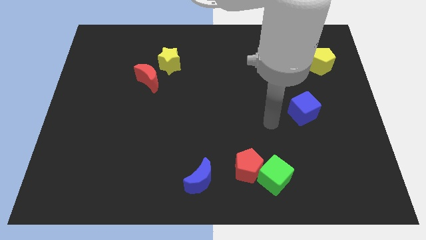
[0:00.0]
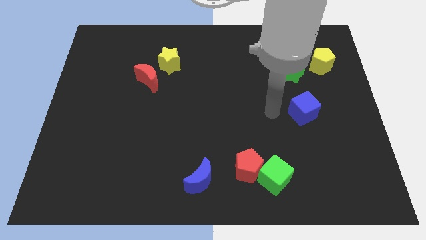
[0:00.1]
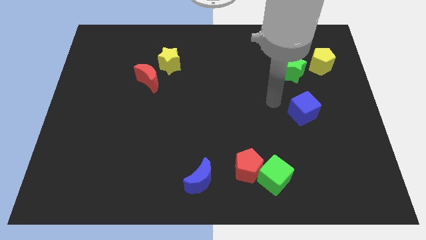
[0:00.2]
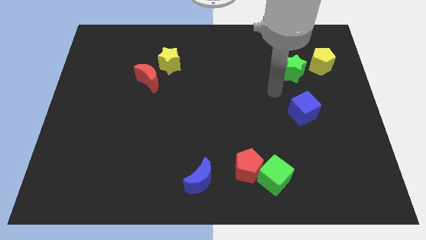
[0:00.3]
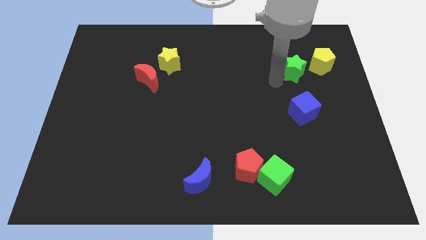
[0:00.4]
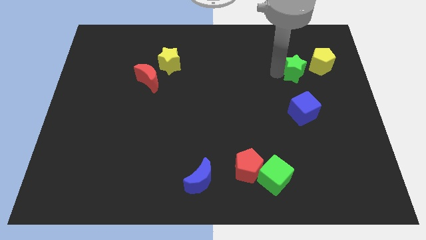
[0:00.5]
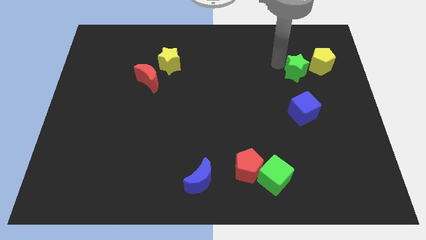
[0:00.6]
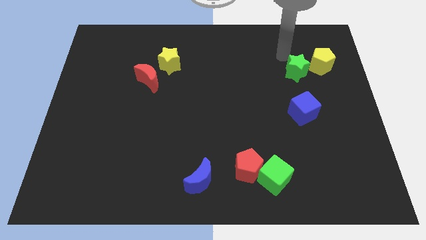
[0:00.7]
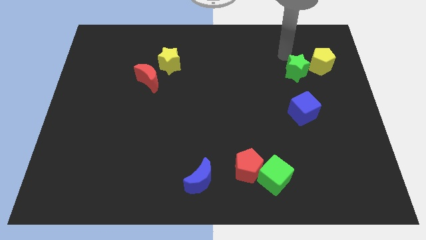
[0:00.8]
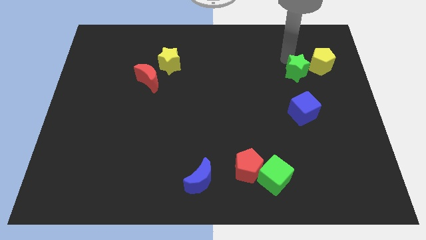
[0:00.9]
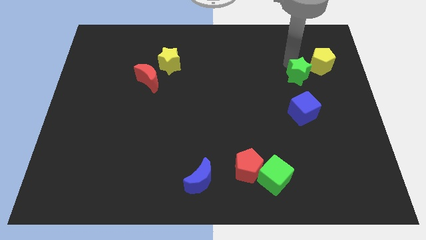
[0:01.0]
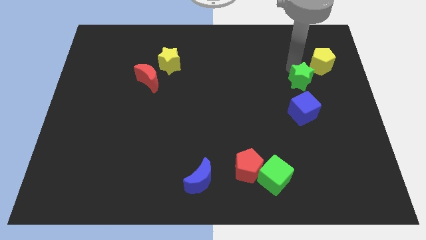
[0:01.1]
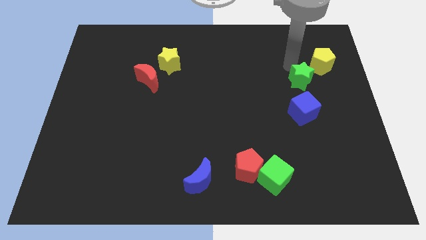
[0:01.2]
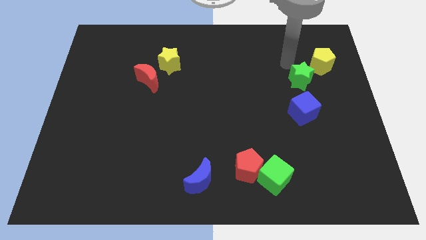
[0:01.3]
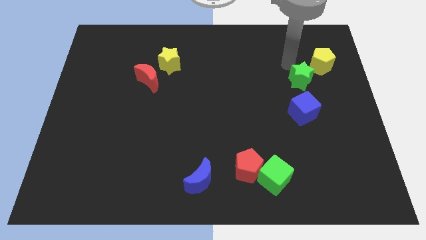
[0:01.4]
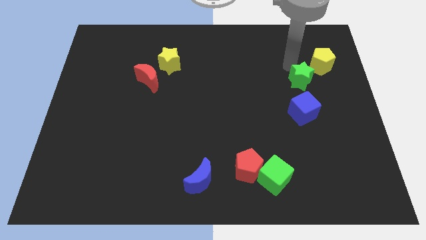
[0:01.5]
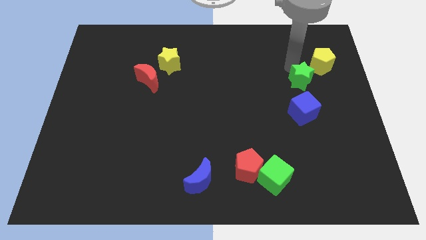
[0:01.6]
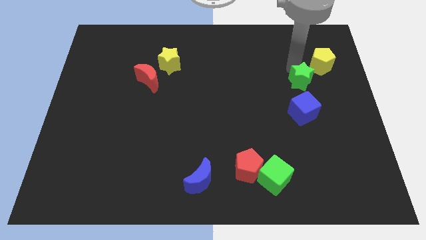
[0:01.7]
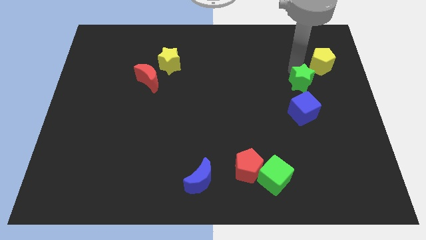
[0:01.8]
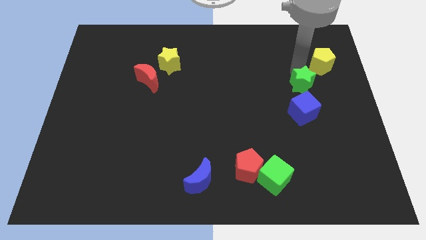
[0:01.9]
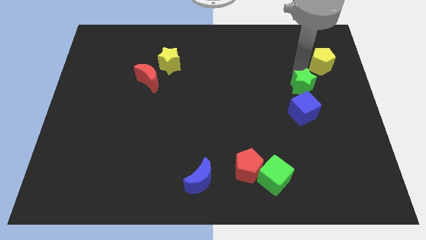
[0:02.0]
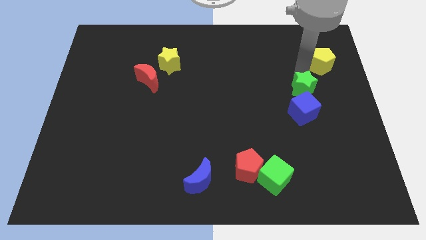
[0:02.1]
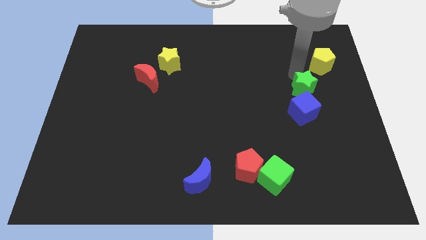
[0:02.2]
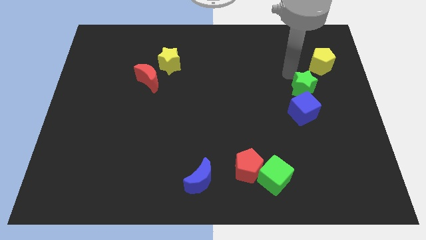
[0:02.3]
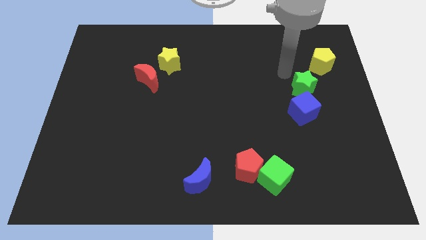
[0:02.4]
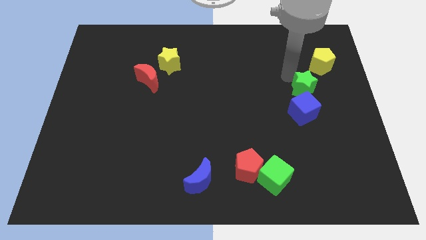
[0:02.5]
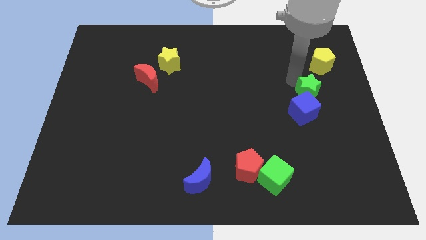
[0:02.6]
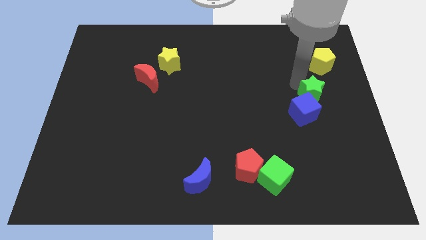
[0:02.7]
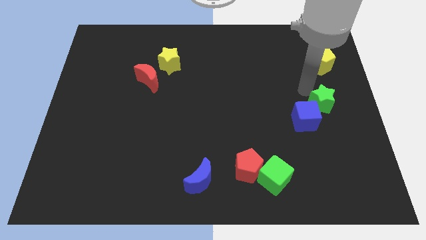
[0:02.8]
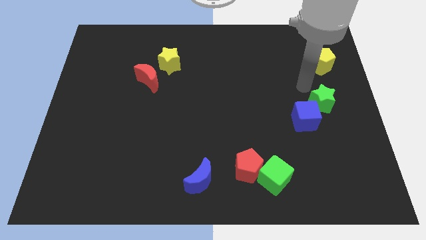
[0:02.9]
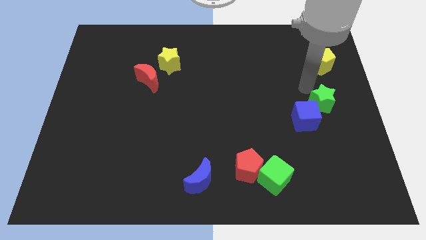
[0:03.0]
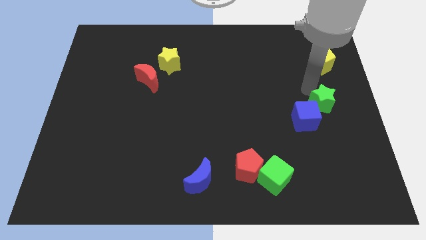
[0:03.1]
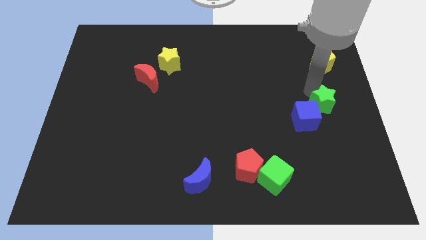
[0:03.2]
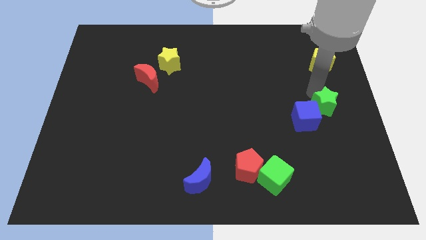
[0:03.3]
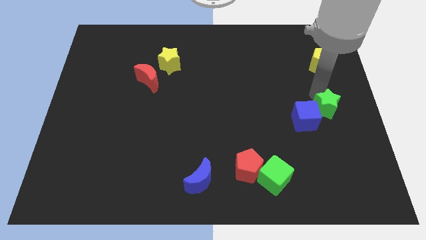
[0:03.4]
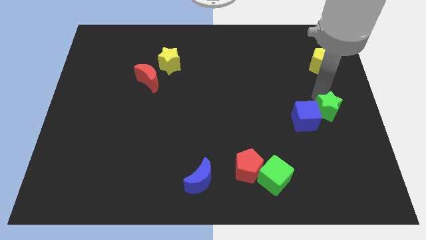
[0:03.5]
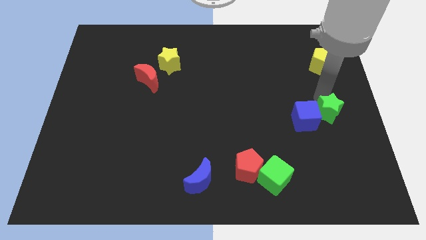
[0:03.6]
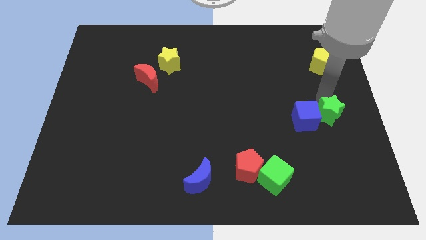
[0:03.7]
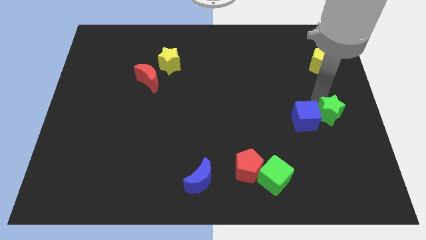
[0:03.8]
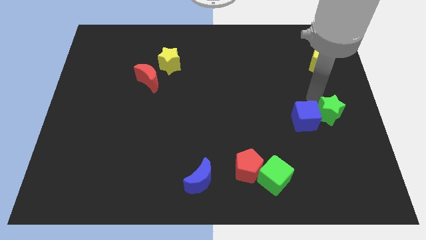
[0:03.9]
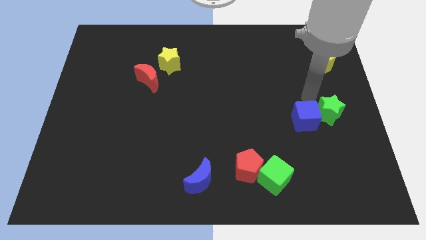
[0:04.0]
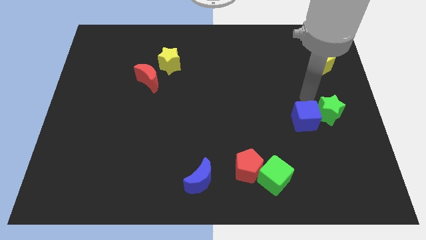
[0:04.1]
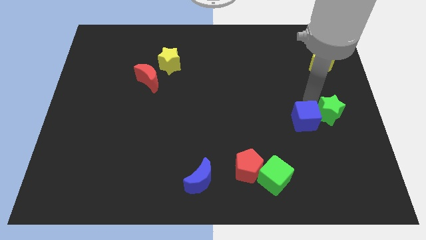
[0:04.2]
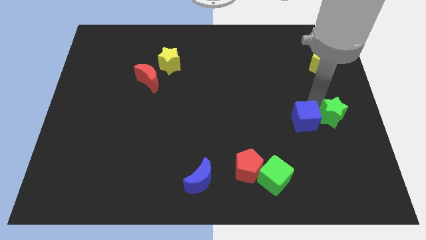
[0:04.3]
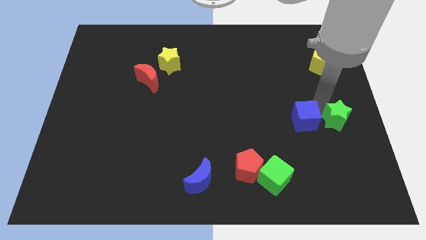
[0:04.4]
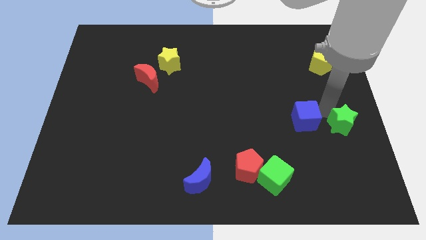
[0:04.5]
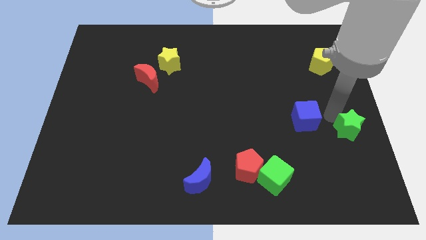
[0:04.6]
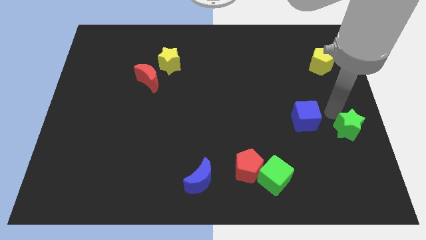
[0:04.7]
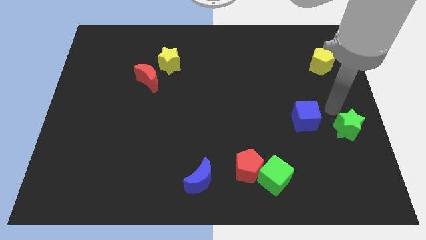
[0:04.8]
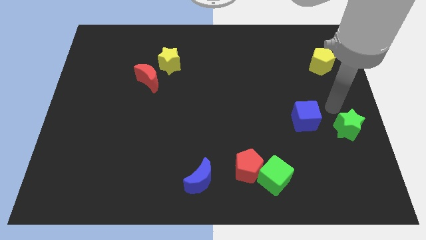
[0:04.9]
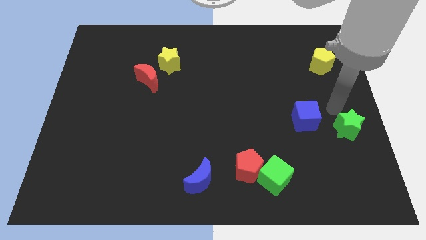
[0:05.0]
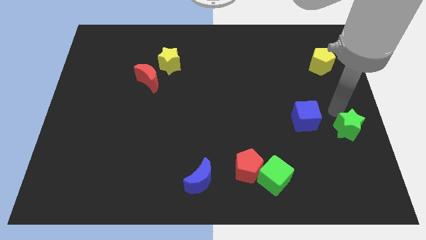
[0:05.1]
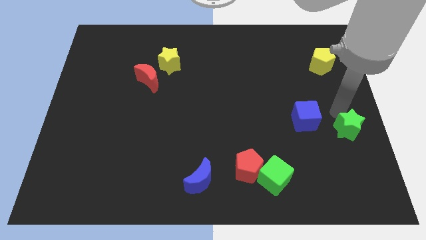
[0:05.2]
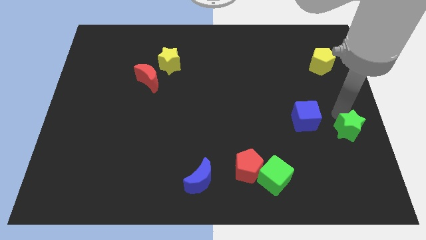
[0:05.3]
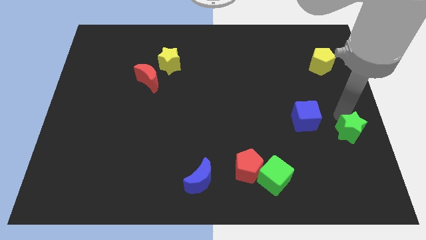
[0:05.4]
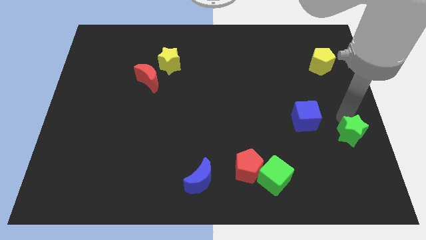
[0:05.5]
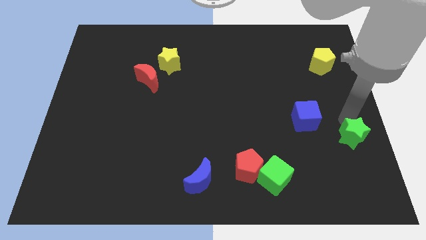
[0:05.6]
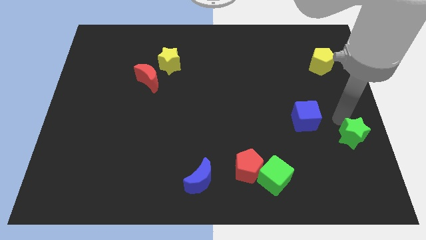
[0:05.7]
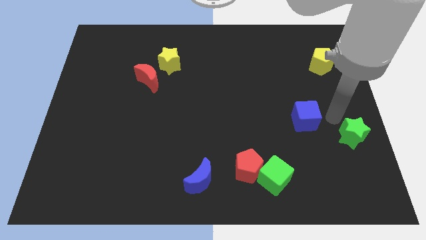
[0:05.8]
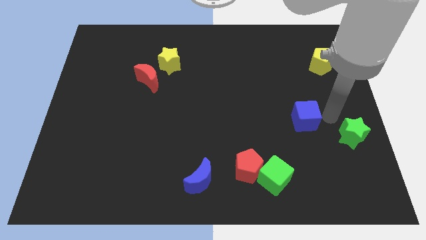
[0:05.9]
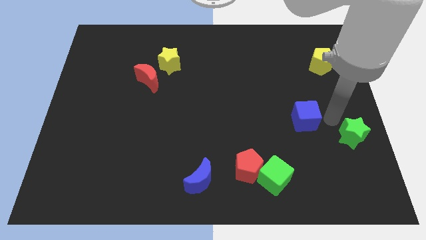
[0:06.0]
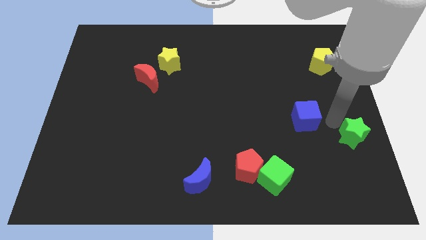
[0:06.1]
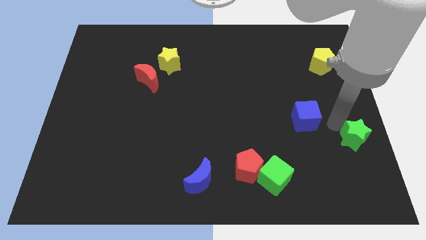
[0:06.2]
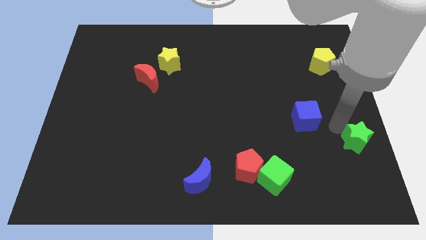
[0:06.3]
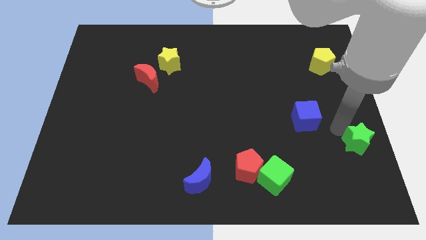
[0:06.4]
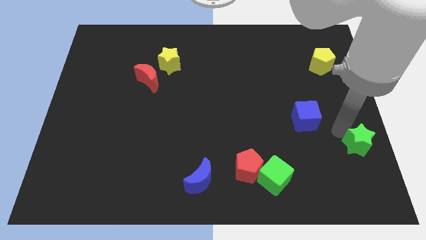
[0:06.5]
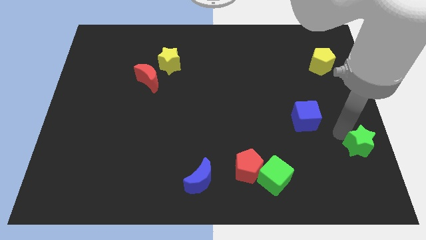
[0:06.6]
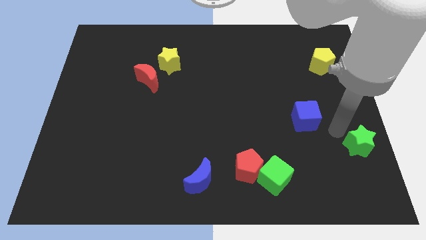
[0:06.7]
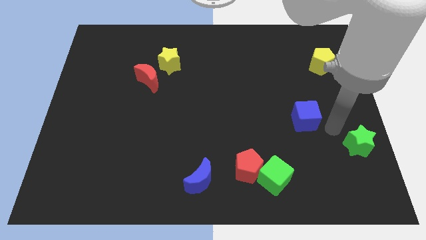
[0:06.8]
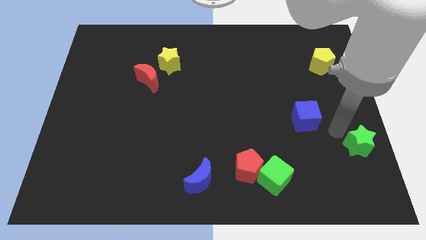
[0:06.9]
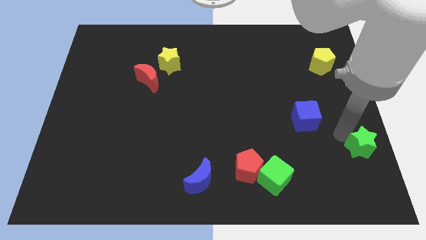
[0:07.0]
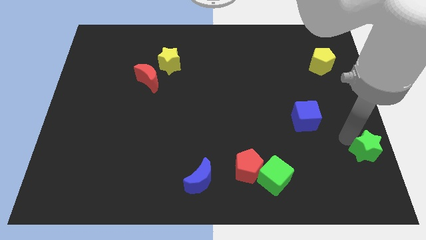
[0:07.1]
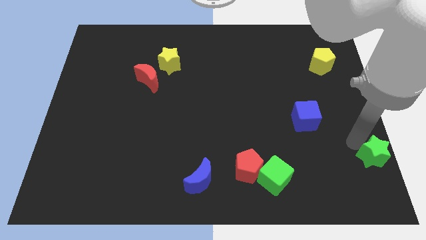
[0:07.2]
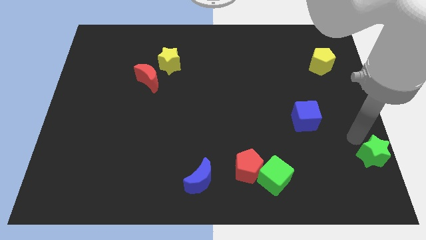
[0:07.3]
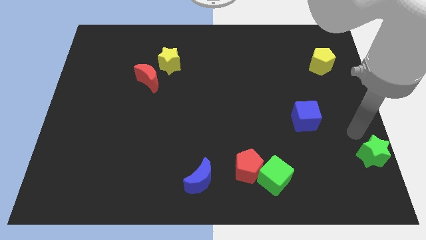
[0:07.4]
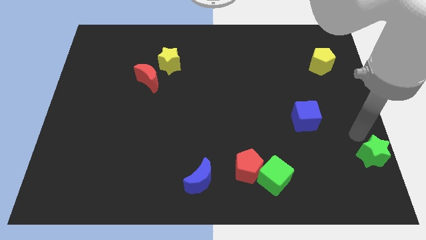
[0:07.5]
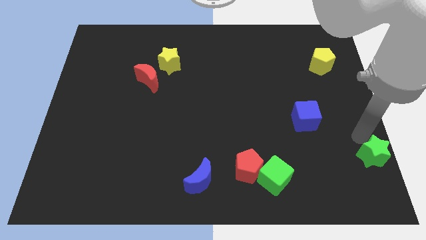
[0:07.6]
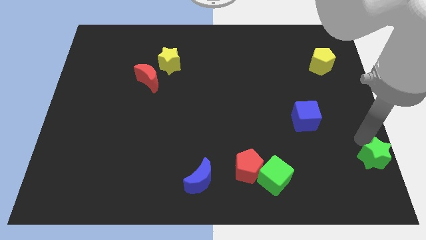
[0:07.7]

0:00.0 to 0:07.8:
move the green star to the bottom right corner
